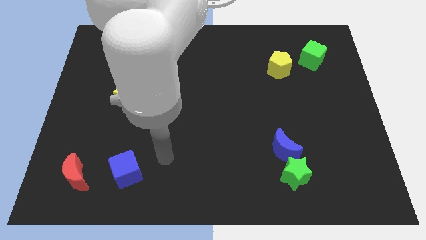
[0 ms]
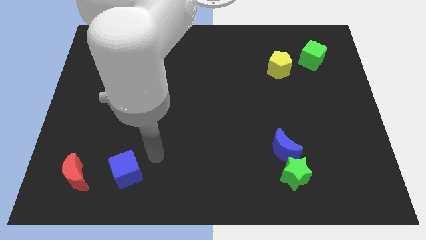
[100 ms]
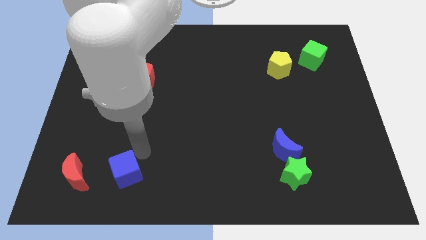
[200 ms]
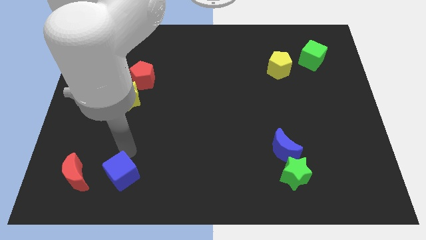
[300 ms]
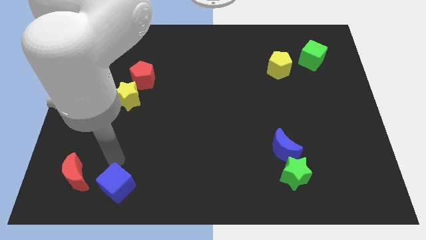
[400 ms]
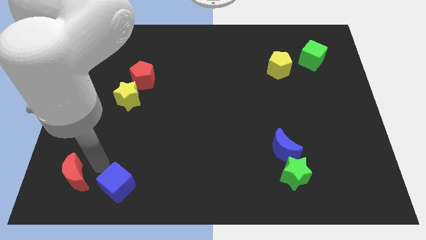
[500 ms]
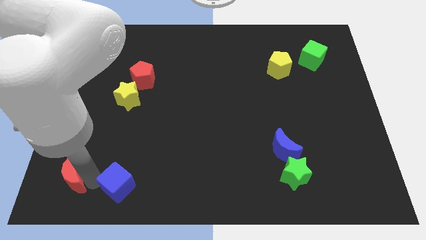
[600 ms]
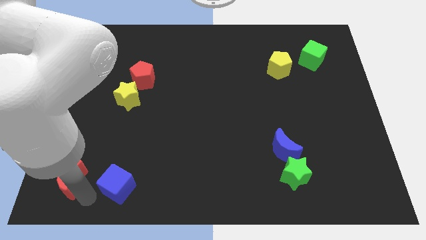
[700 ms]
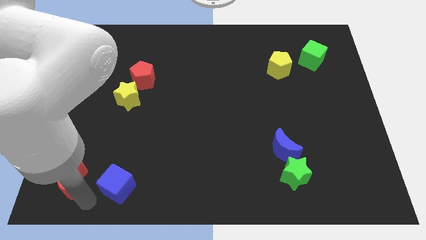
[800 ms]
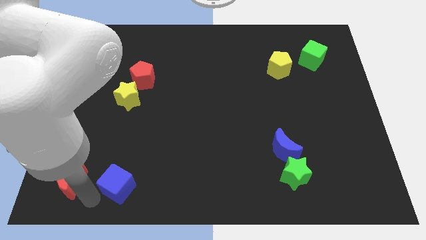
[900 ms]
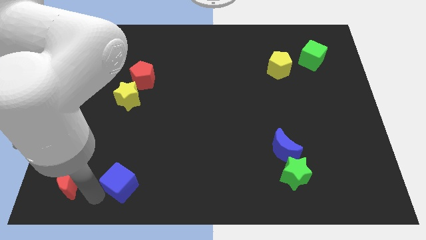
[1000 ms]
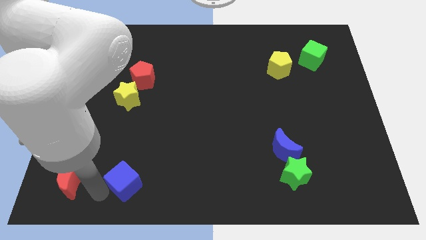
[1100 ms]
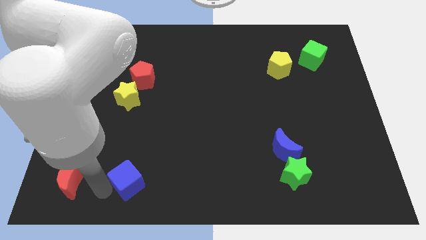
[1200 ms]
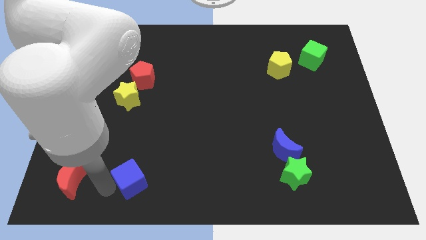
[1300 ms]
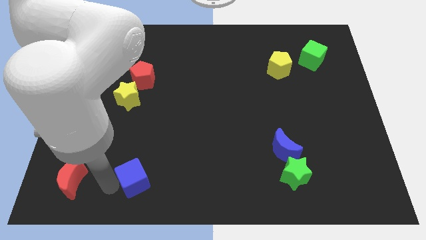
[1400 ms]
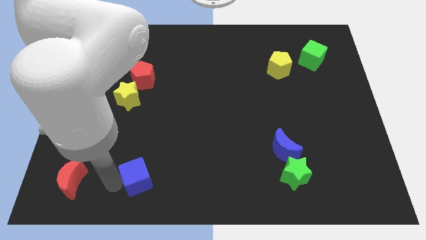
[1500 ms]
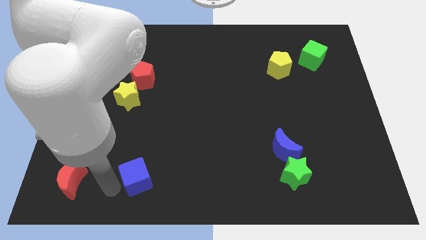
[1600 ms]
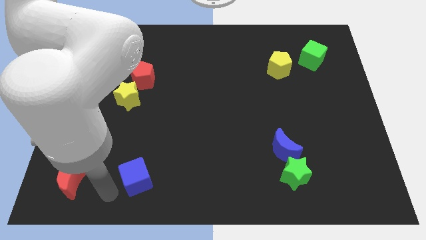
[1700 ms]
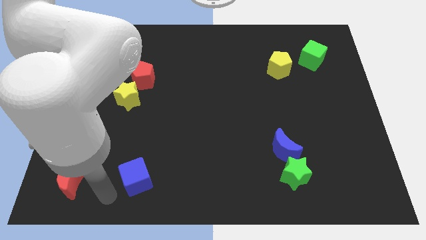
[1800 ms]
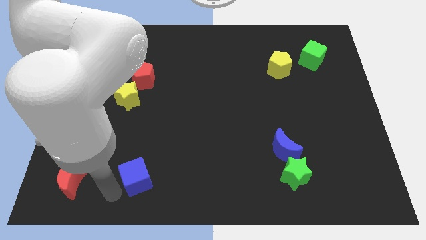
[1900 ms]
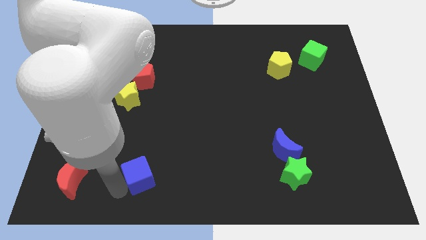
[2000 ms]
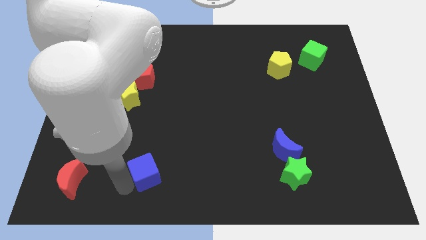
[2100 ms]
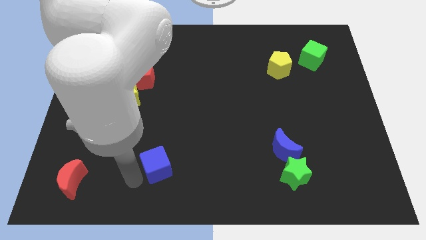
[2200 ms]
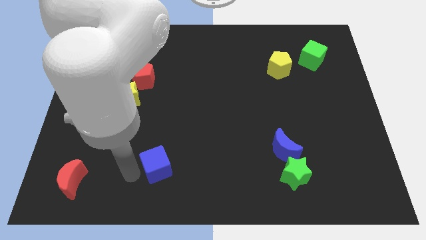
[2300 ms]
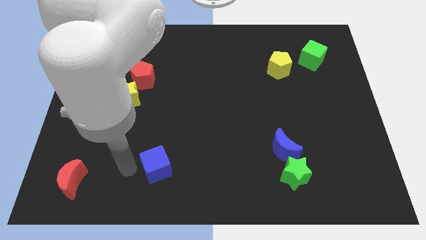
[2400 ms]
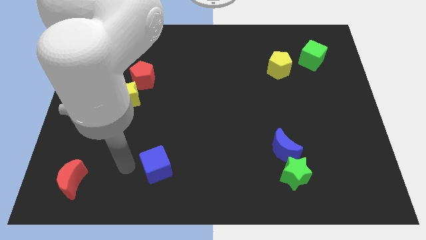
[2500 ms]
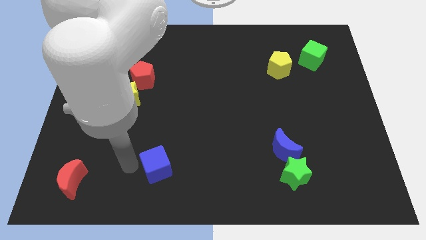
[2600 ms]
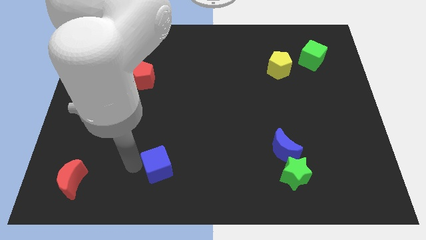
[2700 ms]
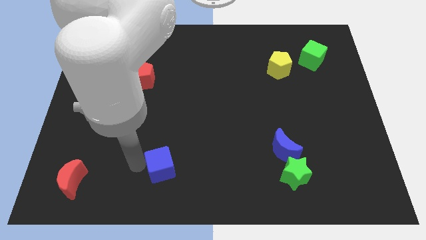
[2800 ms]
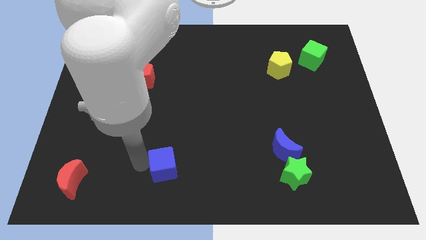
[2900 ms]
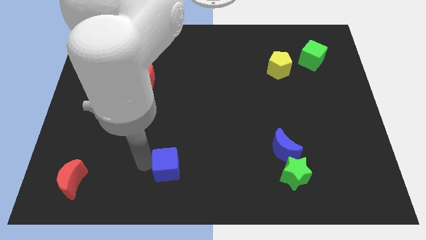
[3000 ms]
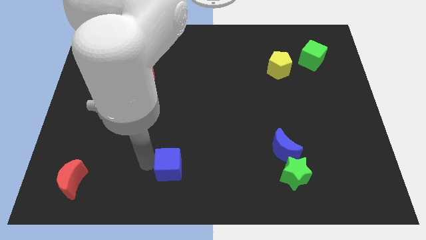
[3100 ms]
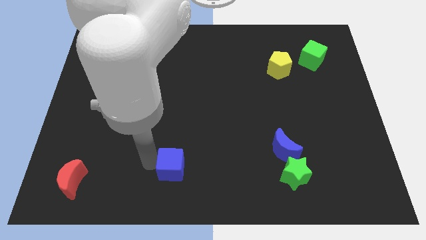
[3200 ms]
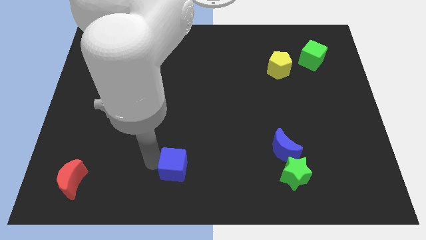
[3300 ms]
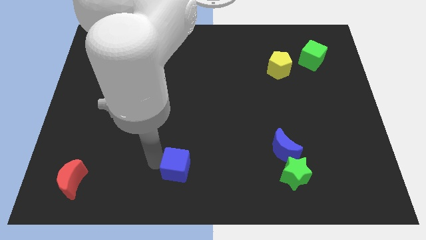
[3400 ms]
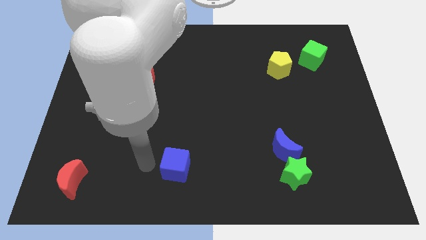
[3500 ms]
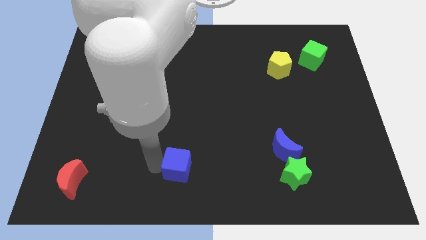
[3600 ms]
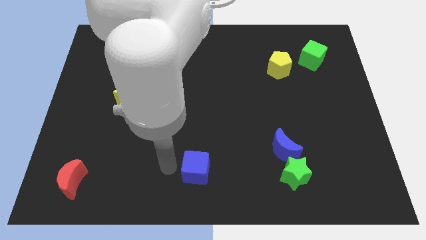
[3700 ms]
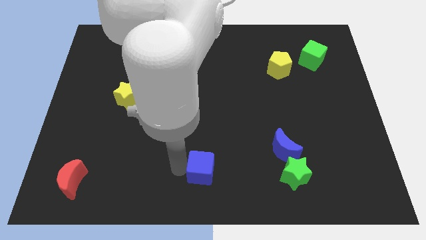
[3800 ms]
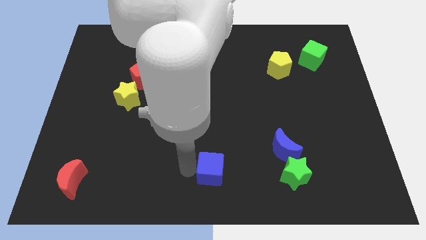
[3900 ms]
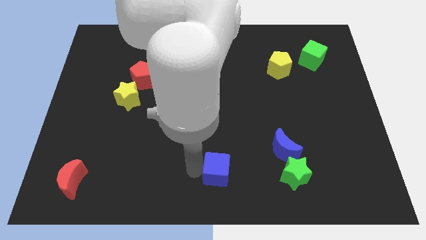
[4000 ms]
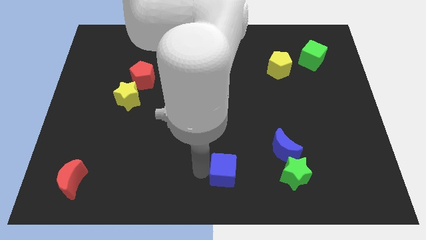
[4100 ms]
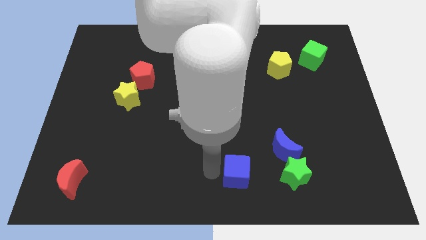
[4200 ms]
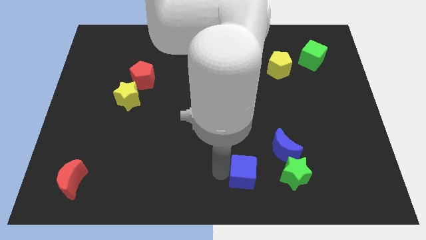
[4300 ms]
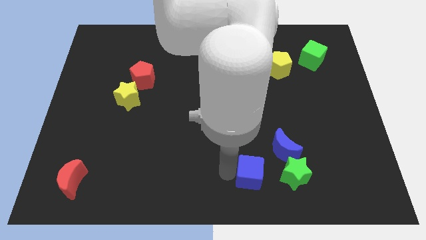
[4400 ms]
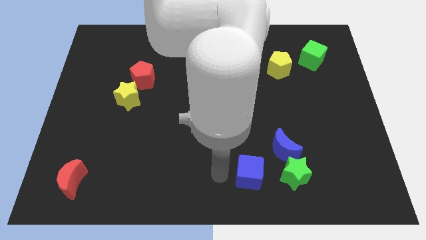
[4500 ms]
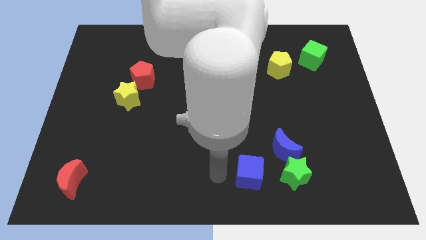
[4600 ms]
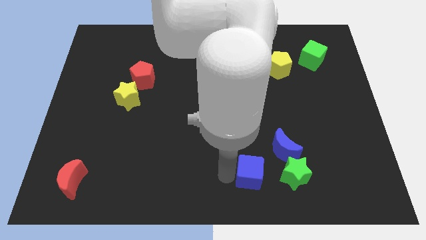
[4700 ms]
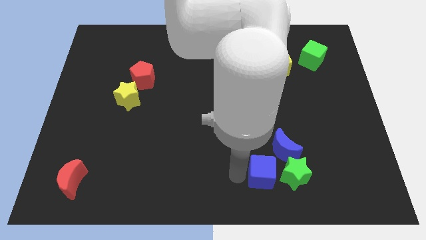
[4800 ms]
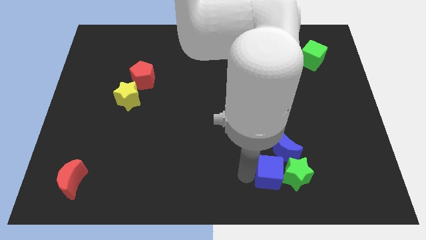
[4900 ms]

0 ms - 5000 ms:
move the blue cube next to the green star

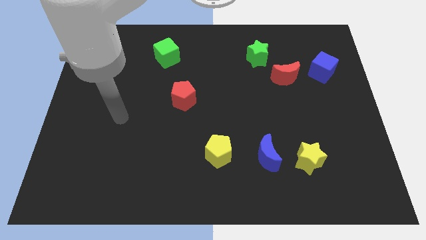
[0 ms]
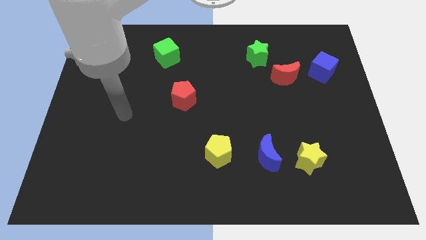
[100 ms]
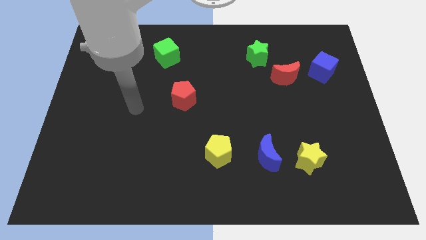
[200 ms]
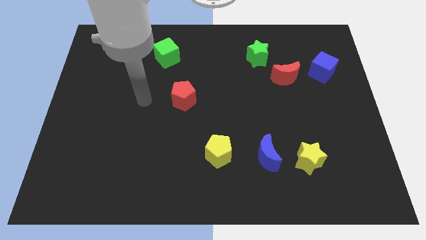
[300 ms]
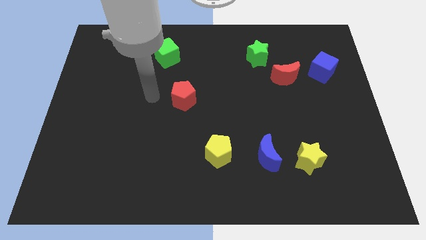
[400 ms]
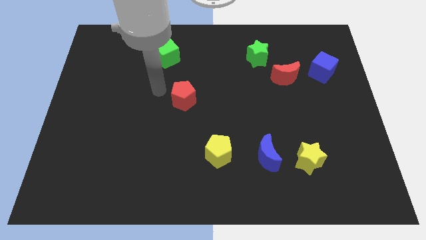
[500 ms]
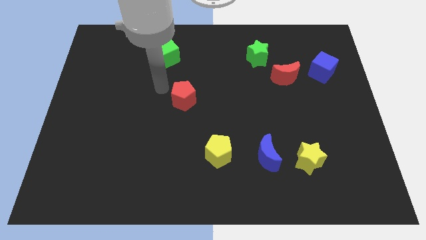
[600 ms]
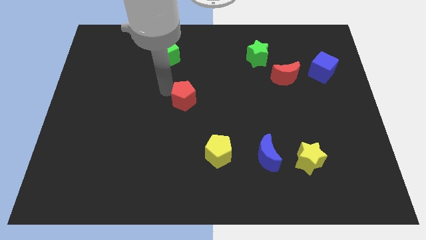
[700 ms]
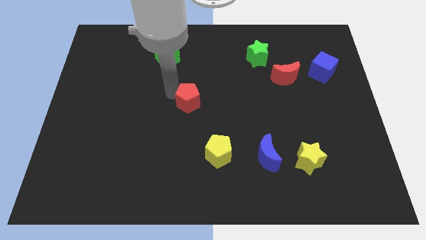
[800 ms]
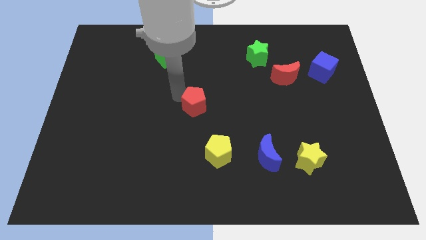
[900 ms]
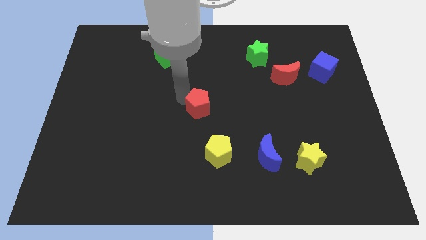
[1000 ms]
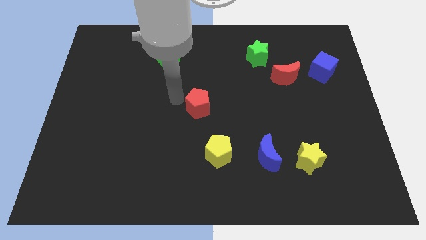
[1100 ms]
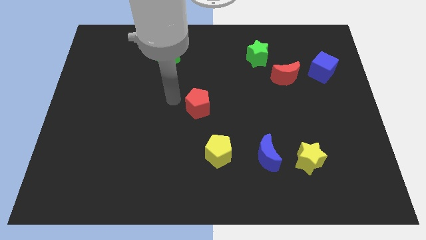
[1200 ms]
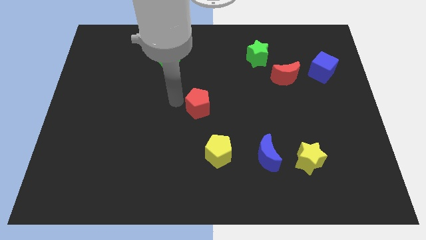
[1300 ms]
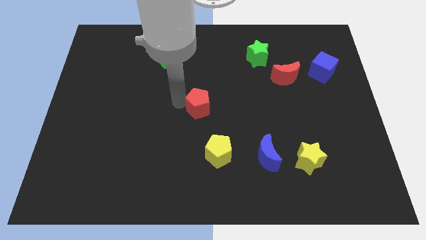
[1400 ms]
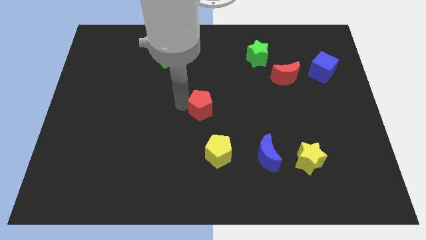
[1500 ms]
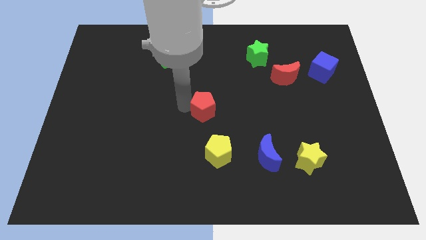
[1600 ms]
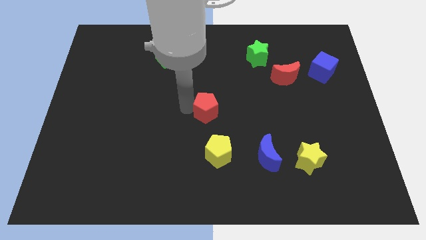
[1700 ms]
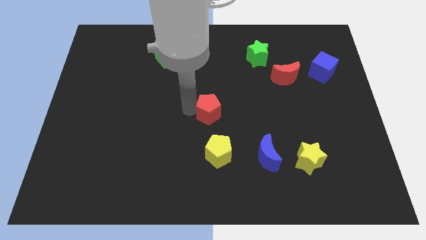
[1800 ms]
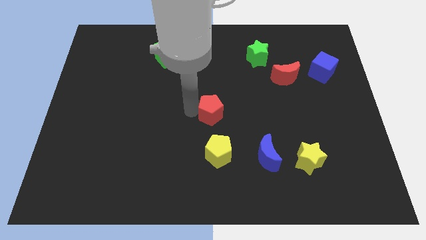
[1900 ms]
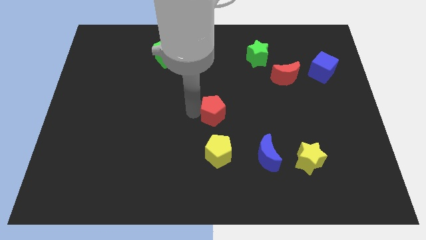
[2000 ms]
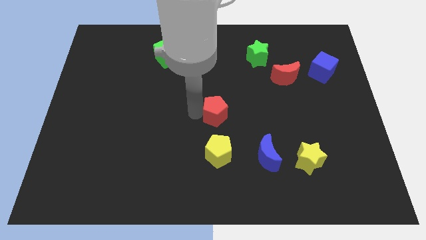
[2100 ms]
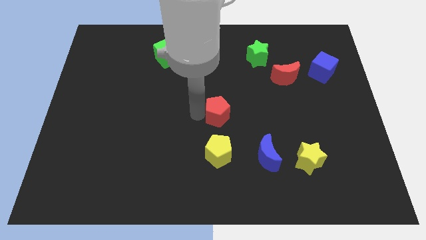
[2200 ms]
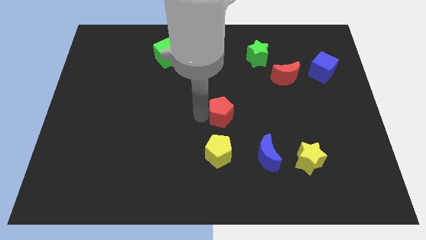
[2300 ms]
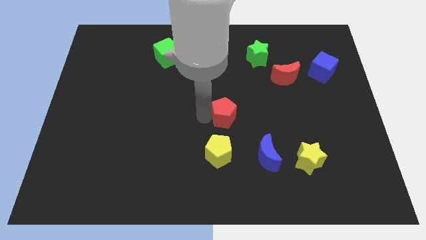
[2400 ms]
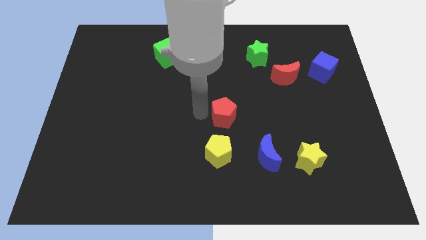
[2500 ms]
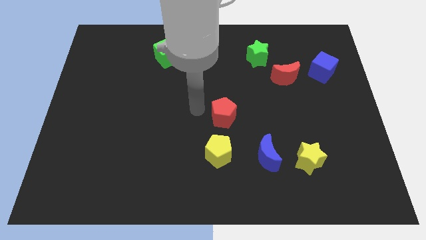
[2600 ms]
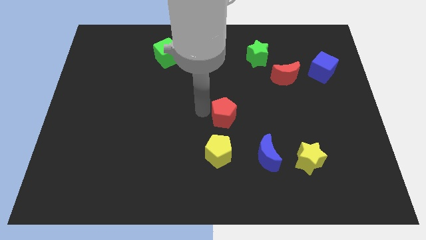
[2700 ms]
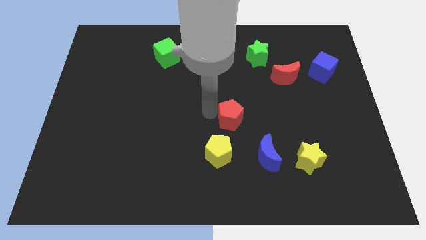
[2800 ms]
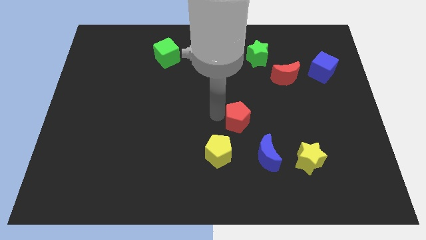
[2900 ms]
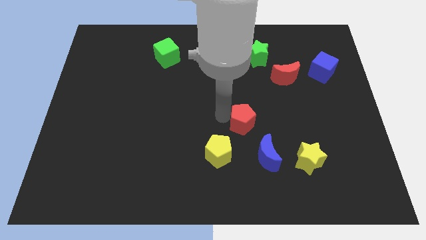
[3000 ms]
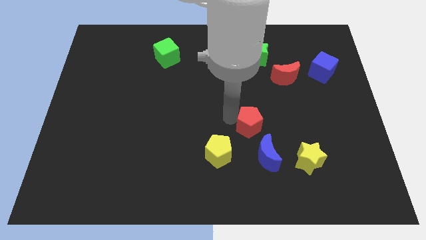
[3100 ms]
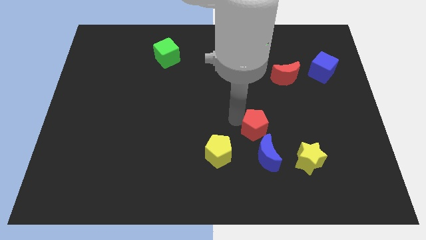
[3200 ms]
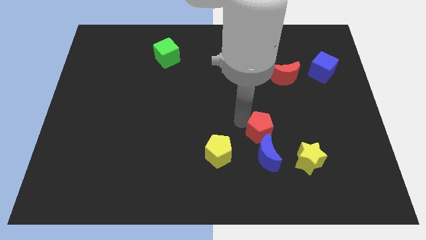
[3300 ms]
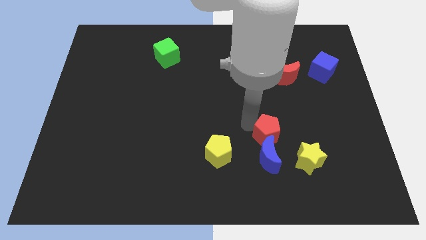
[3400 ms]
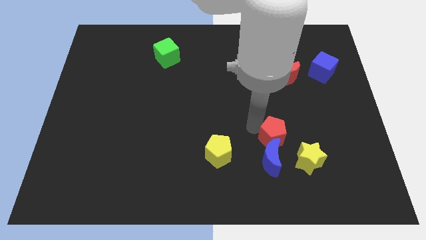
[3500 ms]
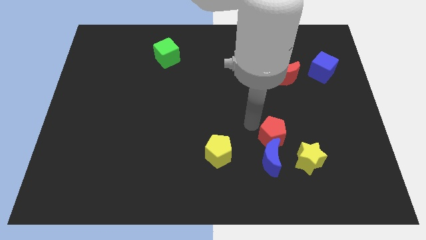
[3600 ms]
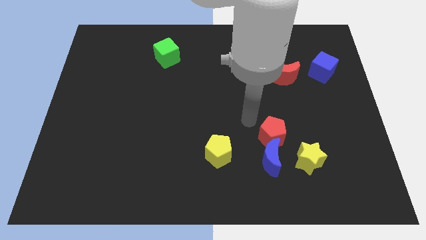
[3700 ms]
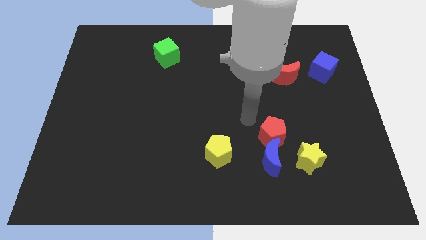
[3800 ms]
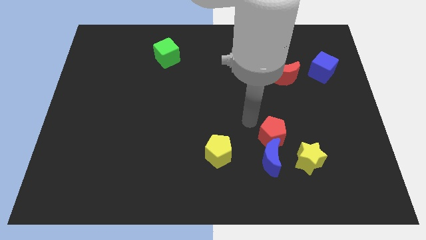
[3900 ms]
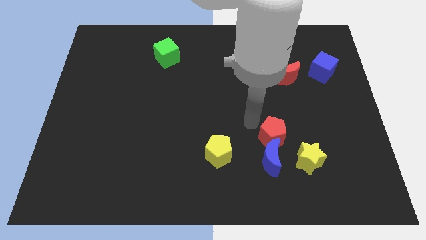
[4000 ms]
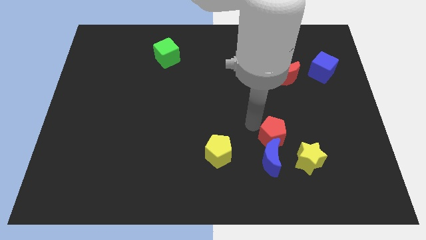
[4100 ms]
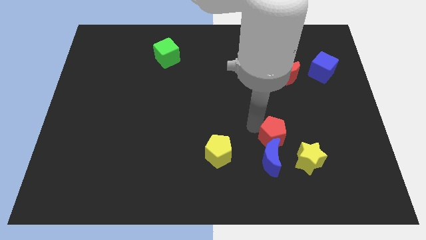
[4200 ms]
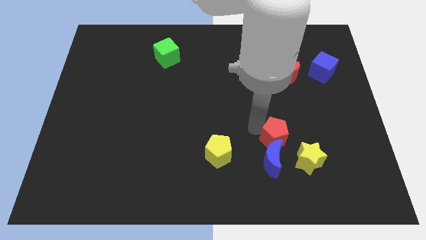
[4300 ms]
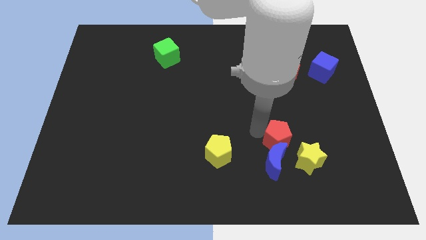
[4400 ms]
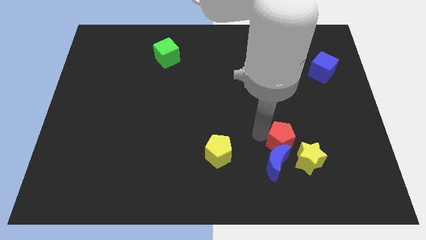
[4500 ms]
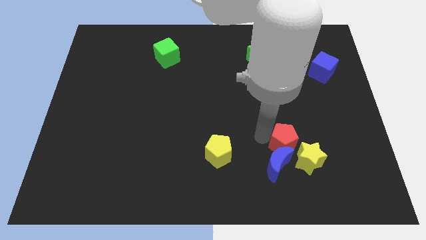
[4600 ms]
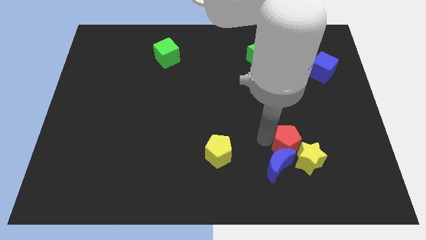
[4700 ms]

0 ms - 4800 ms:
push the red pentagon to the yellow star
